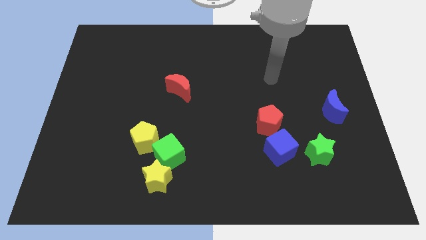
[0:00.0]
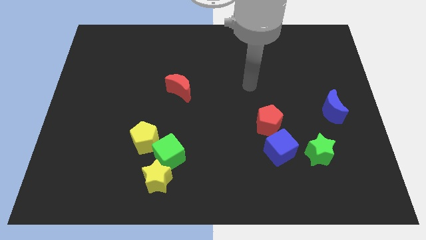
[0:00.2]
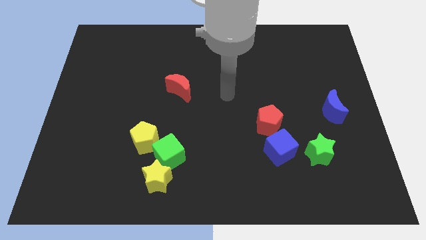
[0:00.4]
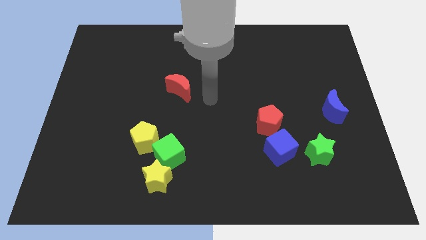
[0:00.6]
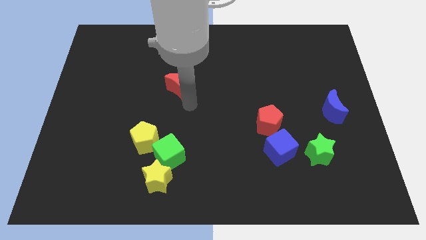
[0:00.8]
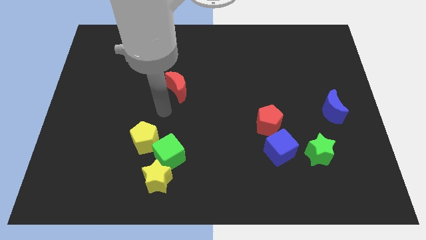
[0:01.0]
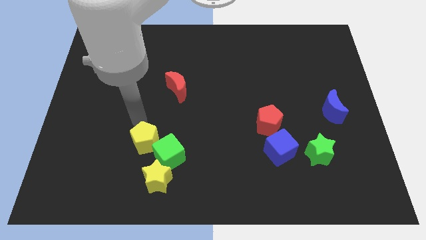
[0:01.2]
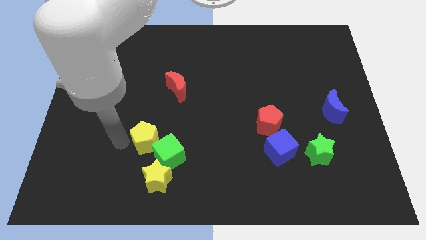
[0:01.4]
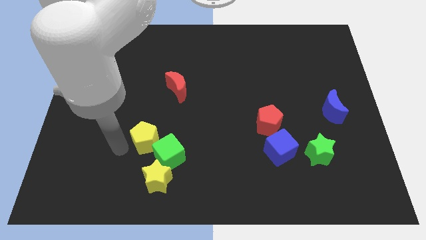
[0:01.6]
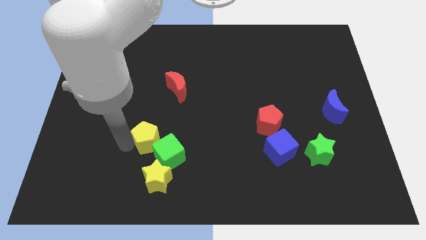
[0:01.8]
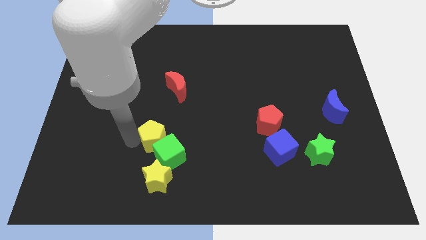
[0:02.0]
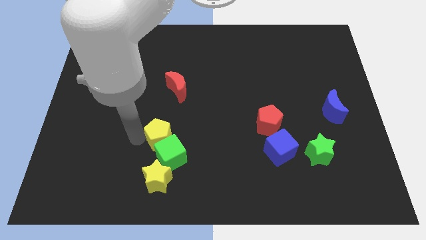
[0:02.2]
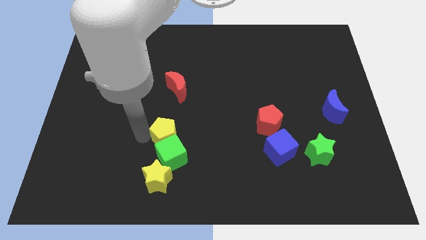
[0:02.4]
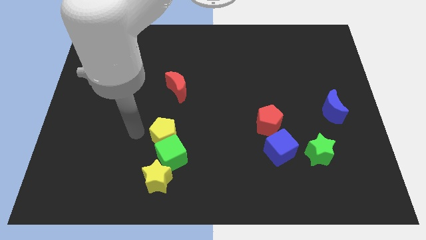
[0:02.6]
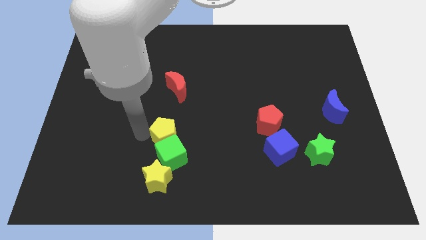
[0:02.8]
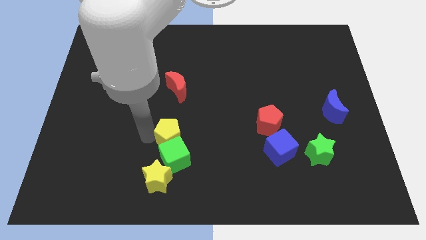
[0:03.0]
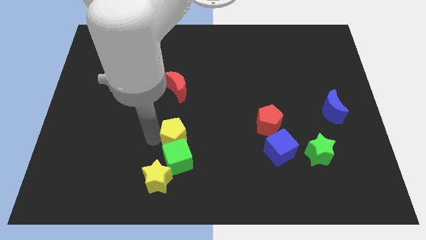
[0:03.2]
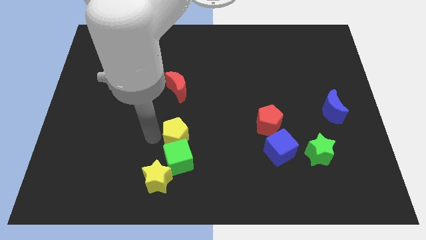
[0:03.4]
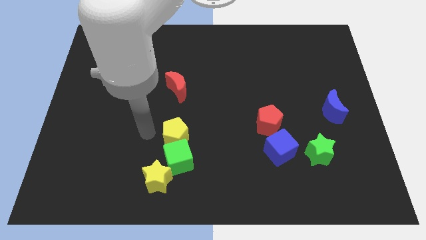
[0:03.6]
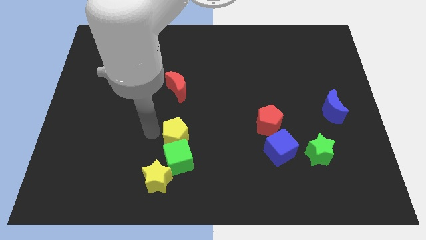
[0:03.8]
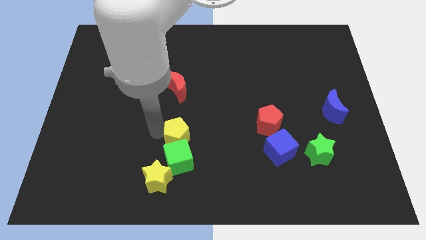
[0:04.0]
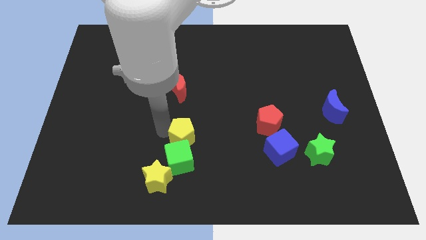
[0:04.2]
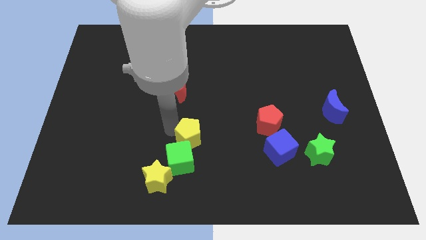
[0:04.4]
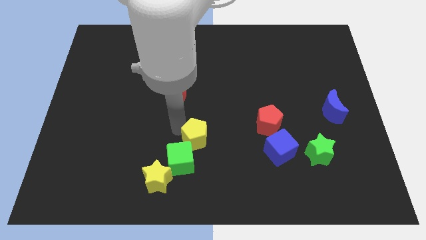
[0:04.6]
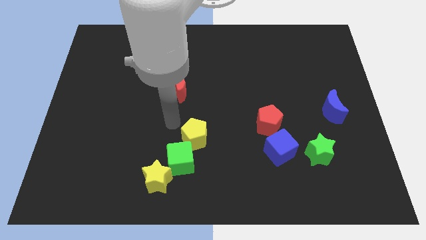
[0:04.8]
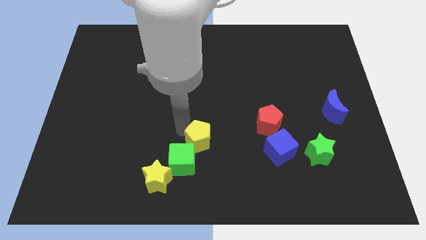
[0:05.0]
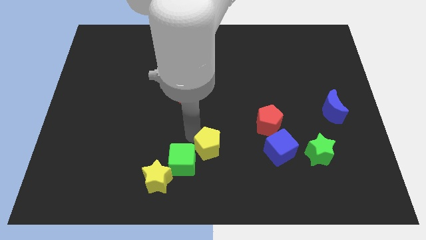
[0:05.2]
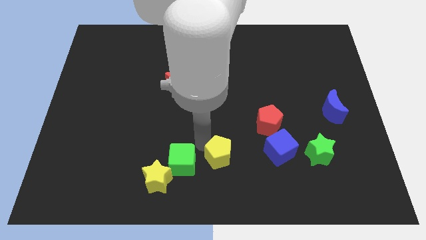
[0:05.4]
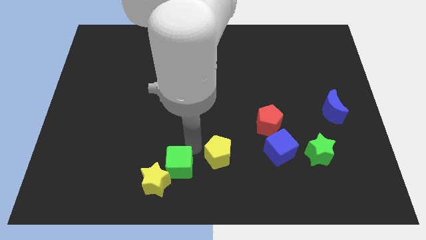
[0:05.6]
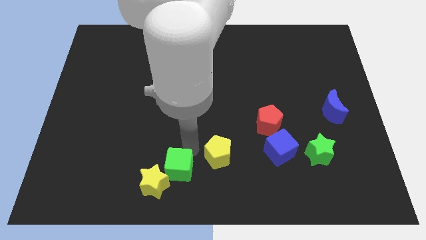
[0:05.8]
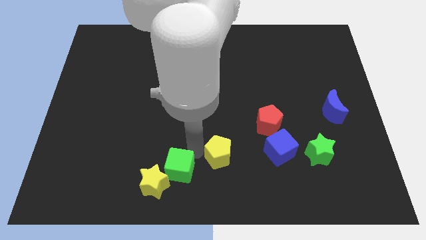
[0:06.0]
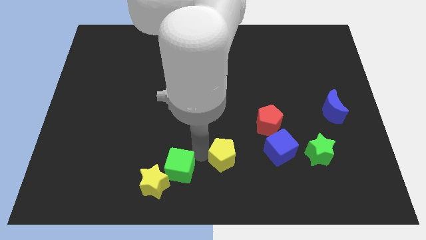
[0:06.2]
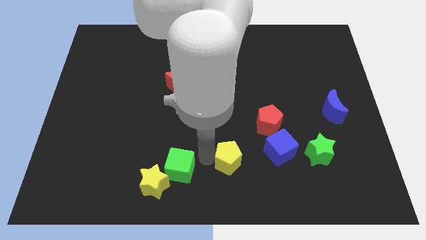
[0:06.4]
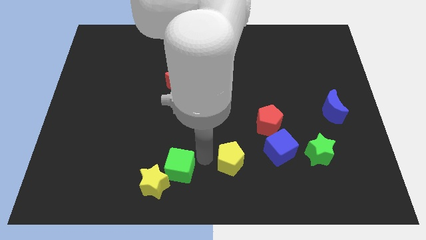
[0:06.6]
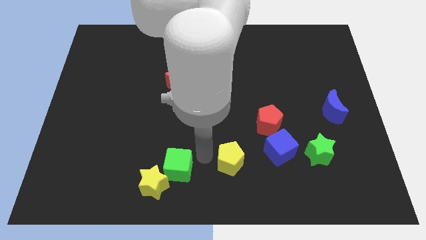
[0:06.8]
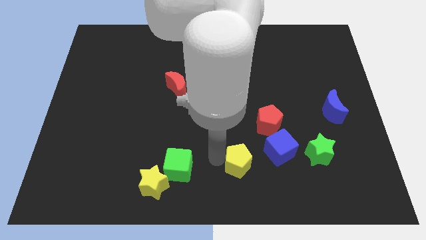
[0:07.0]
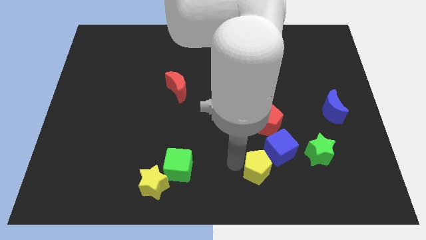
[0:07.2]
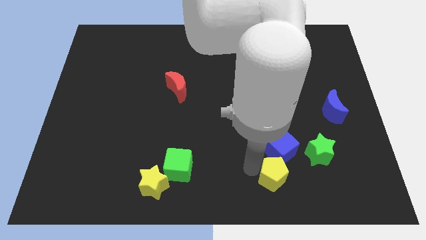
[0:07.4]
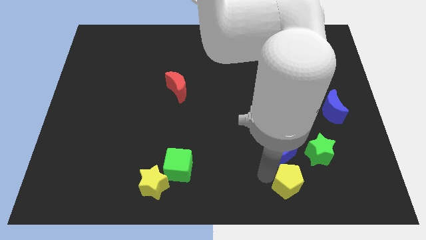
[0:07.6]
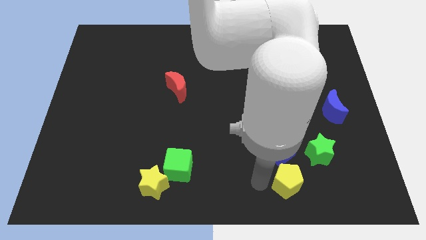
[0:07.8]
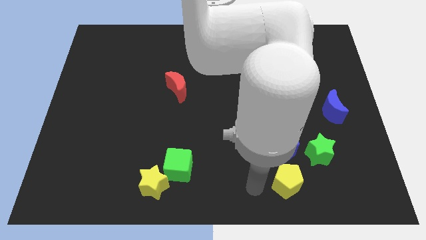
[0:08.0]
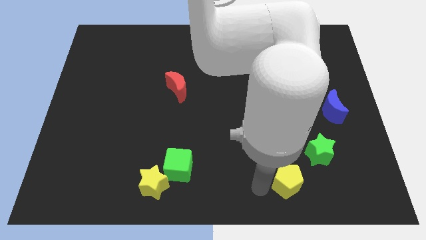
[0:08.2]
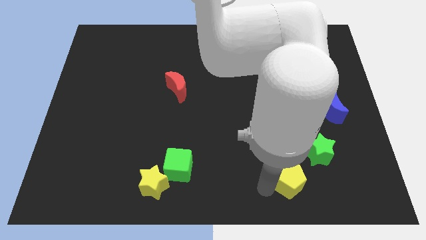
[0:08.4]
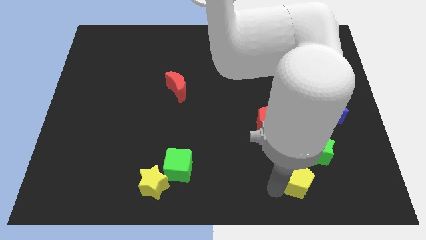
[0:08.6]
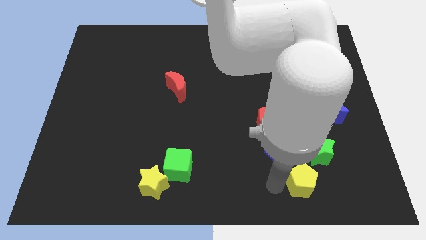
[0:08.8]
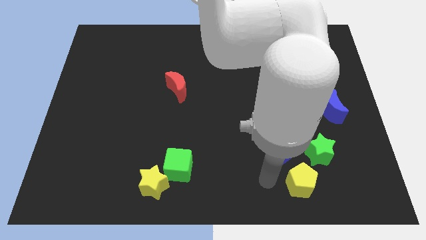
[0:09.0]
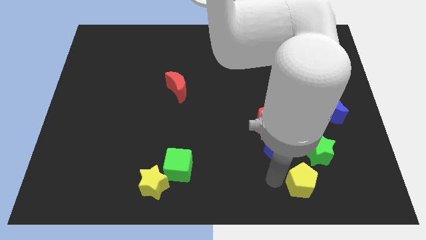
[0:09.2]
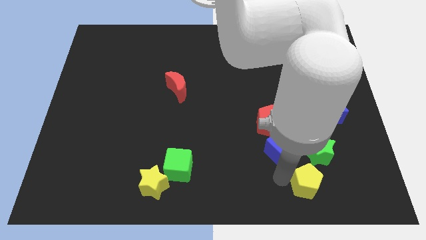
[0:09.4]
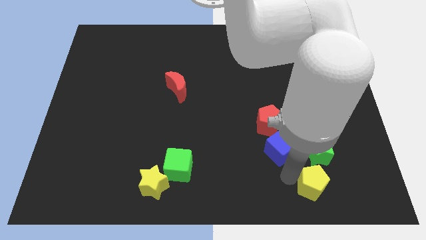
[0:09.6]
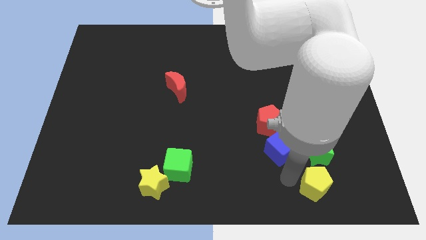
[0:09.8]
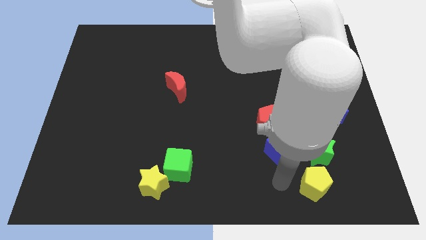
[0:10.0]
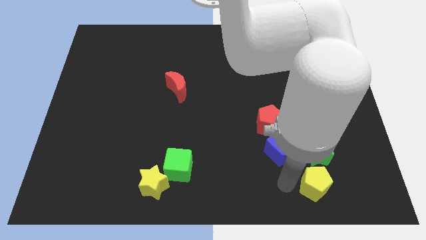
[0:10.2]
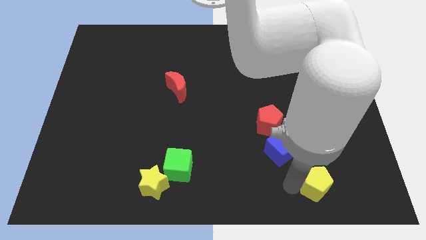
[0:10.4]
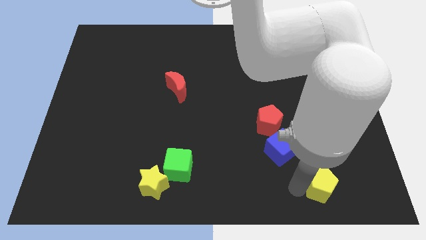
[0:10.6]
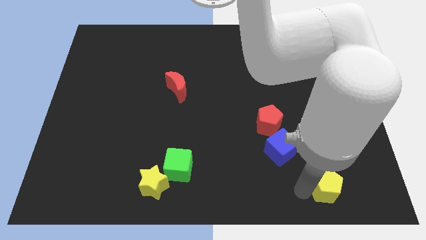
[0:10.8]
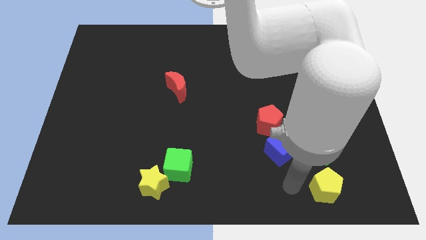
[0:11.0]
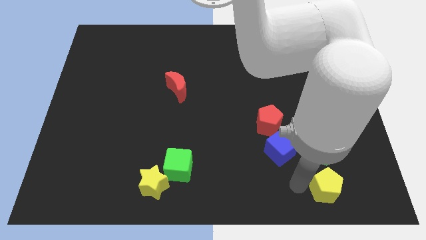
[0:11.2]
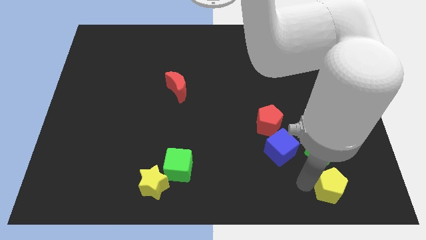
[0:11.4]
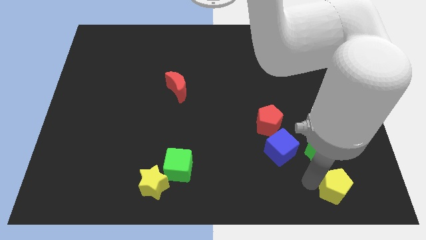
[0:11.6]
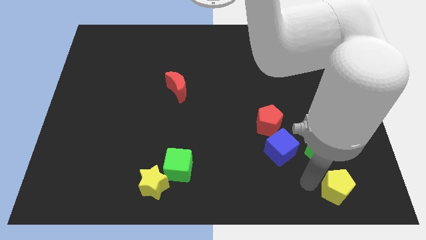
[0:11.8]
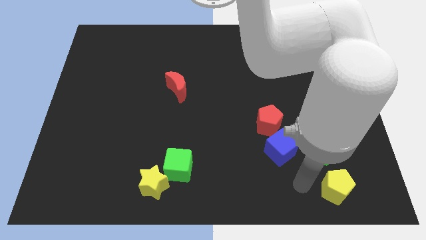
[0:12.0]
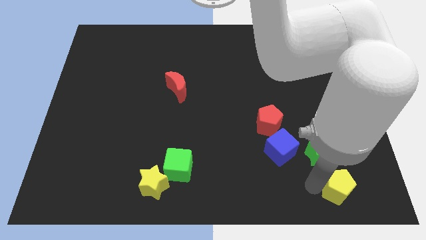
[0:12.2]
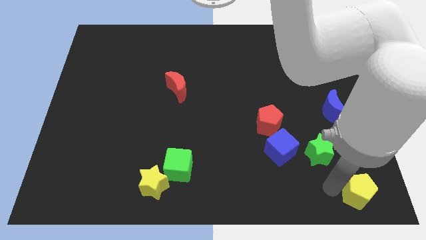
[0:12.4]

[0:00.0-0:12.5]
push the yellow pentagon to the bottom right
